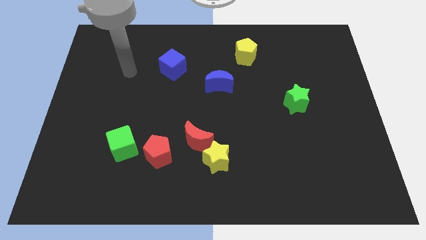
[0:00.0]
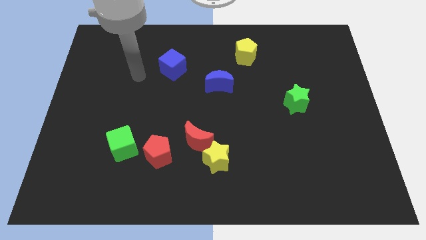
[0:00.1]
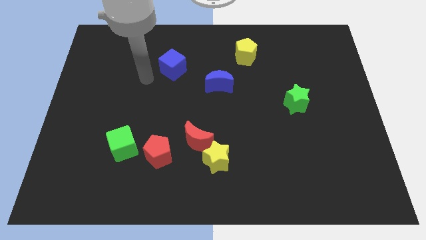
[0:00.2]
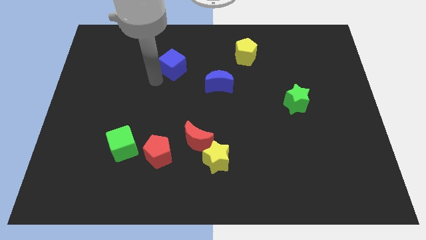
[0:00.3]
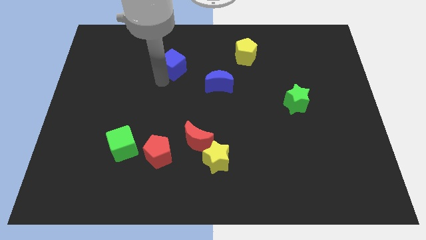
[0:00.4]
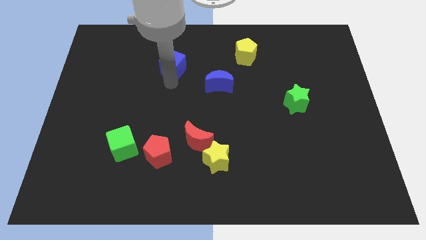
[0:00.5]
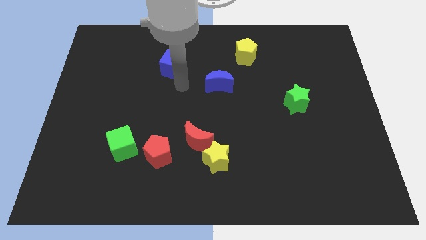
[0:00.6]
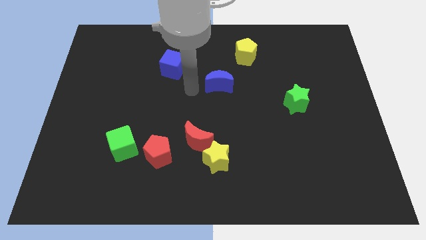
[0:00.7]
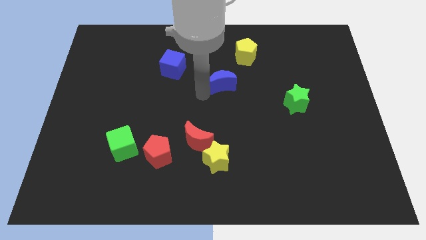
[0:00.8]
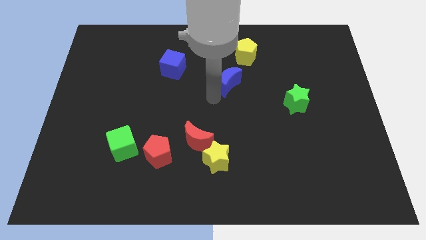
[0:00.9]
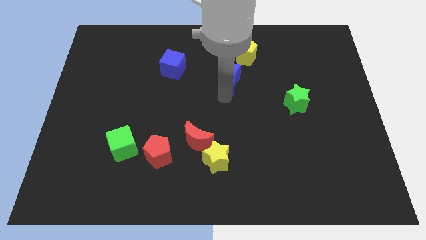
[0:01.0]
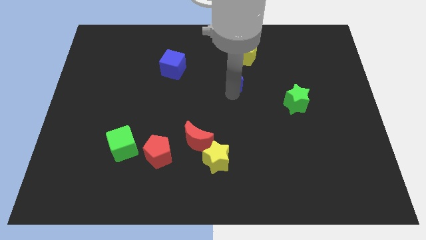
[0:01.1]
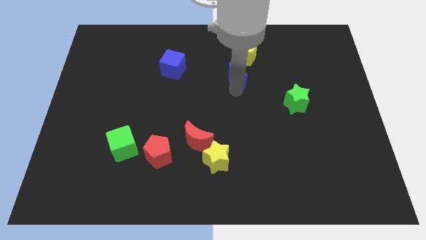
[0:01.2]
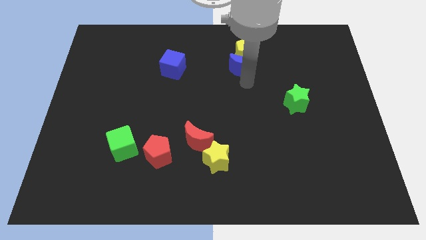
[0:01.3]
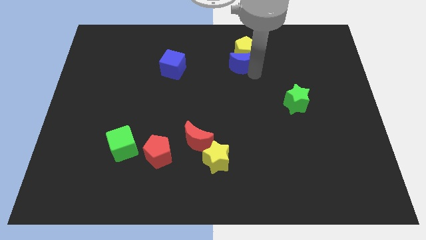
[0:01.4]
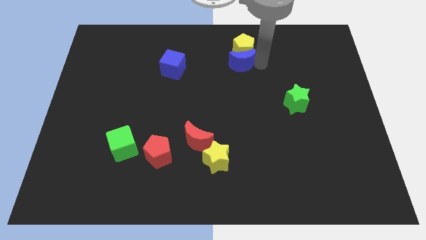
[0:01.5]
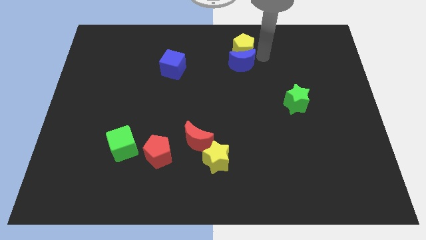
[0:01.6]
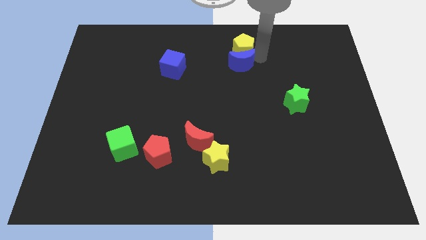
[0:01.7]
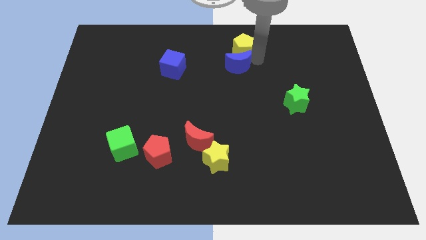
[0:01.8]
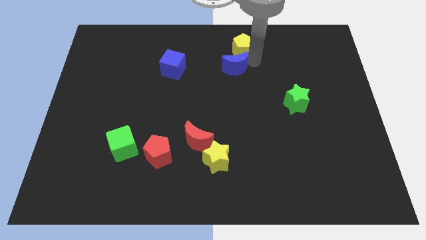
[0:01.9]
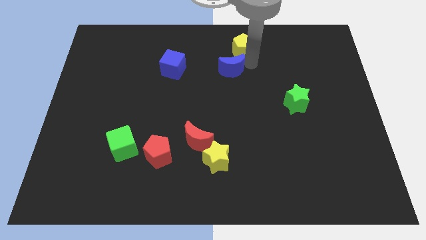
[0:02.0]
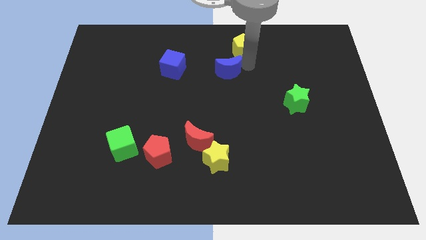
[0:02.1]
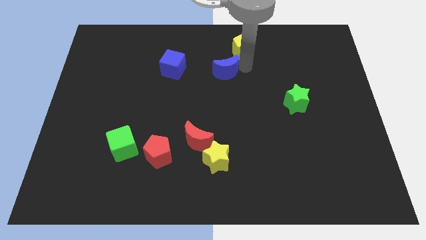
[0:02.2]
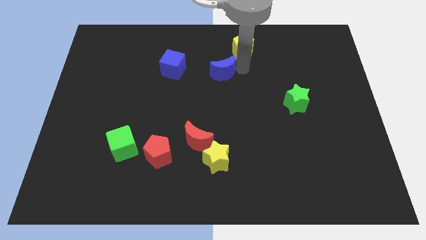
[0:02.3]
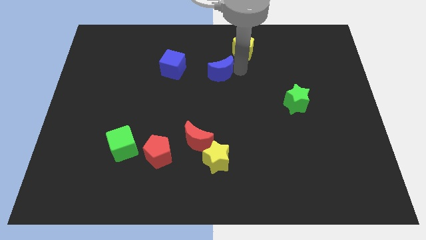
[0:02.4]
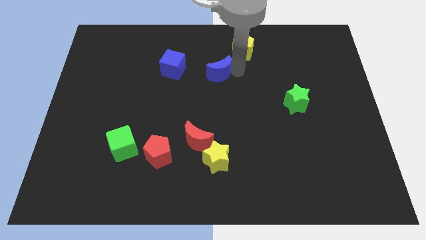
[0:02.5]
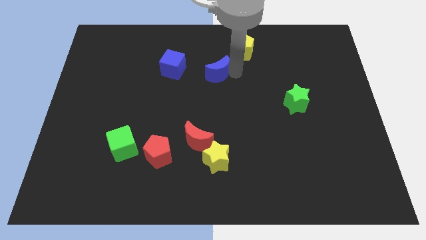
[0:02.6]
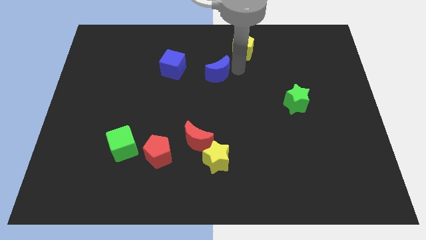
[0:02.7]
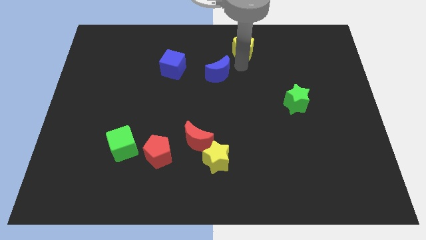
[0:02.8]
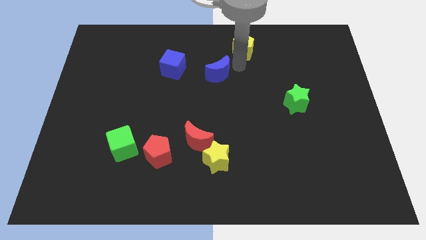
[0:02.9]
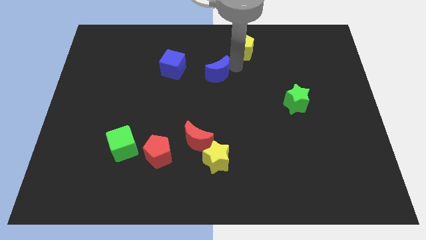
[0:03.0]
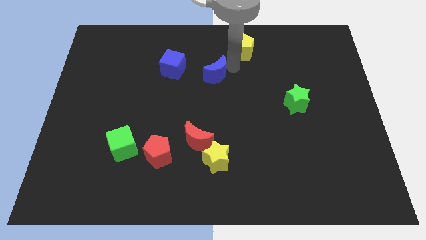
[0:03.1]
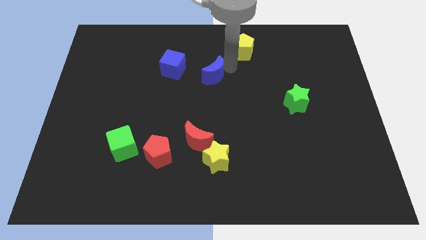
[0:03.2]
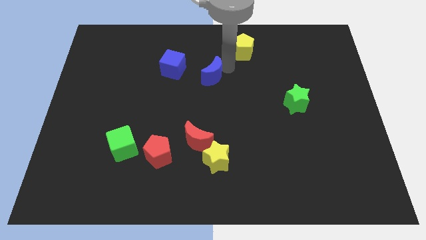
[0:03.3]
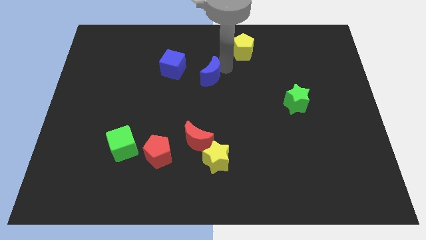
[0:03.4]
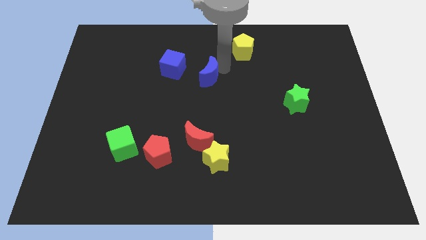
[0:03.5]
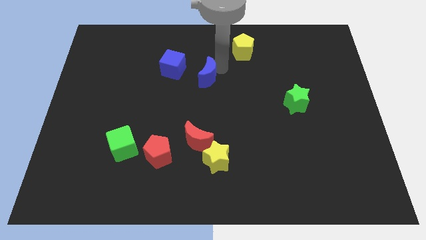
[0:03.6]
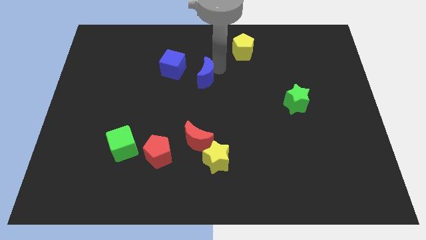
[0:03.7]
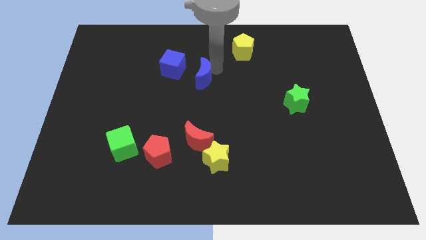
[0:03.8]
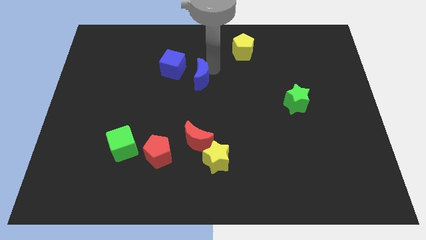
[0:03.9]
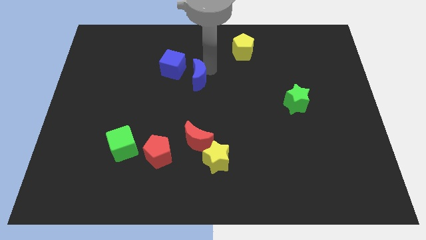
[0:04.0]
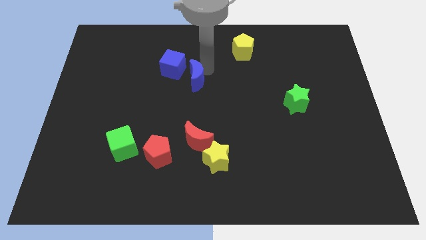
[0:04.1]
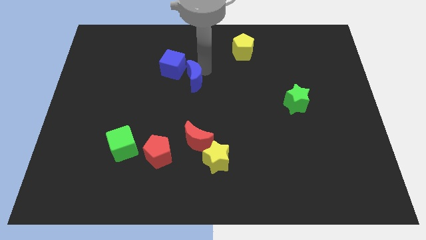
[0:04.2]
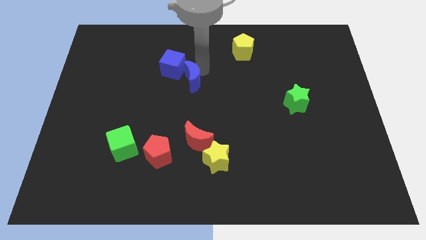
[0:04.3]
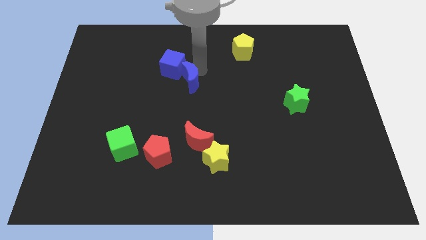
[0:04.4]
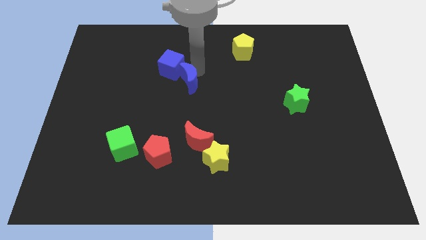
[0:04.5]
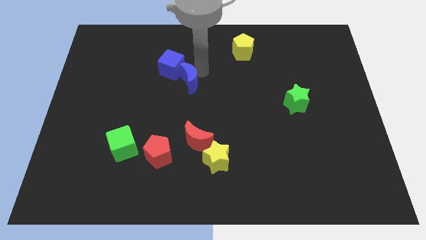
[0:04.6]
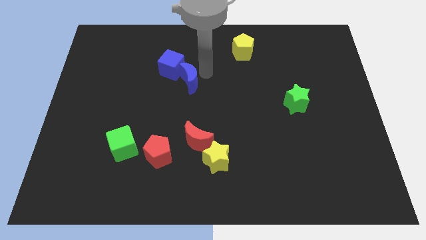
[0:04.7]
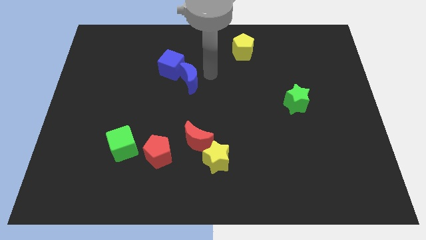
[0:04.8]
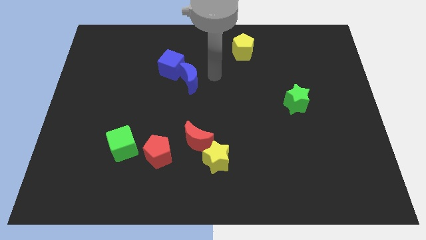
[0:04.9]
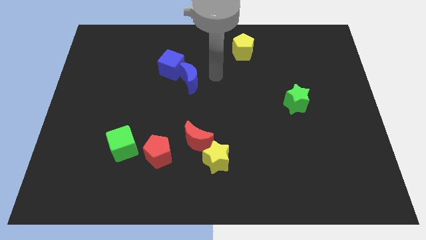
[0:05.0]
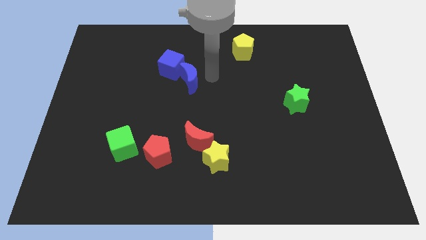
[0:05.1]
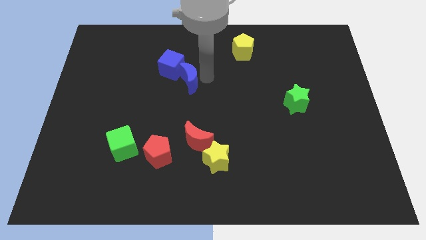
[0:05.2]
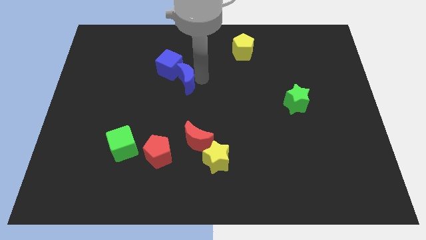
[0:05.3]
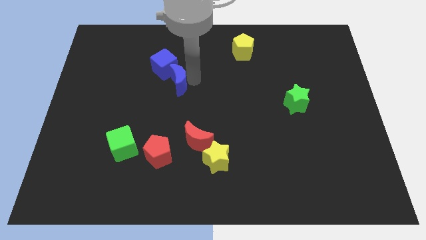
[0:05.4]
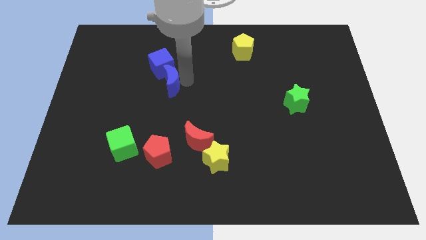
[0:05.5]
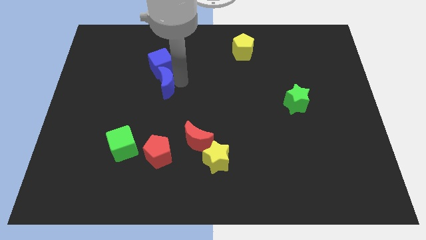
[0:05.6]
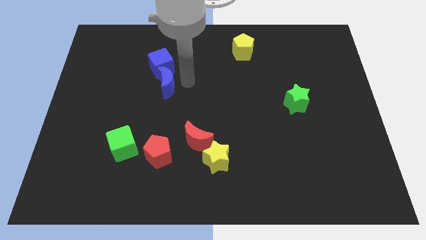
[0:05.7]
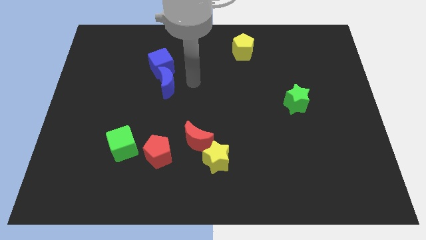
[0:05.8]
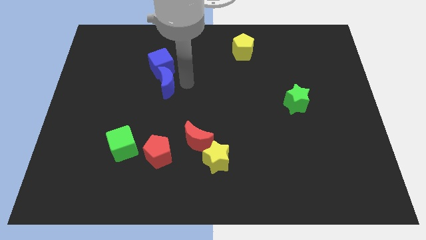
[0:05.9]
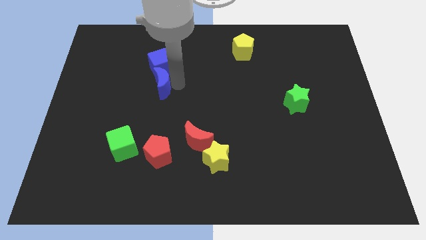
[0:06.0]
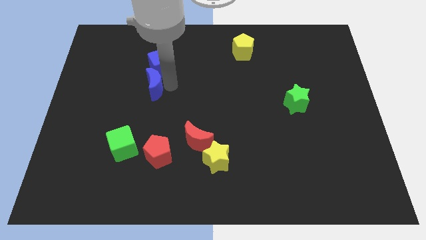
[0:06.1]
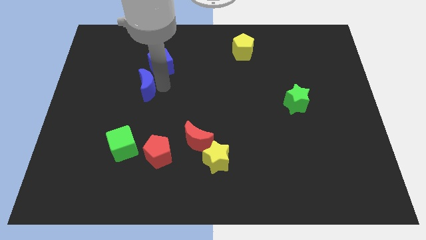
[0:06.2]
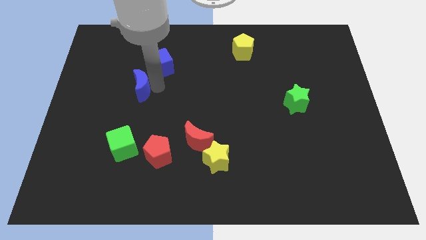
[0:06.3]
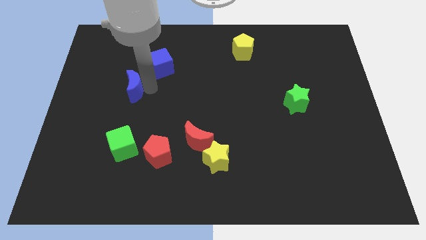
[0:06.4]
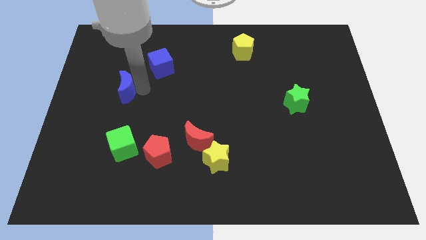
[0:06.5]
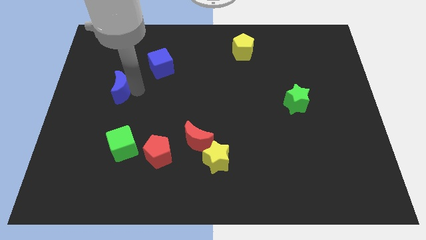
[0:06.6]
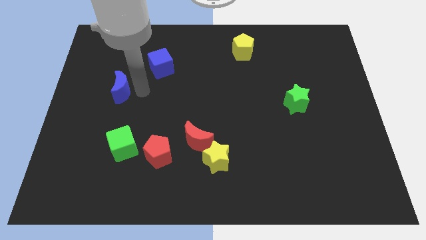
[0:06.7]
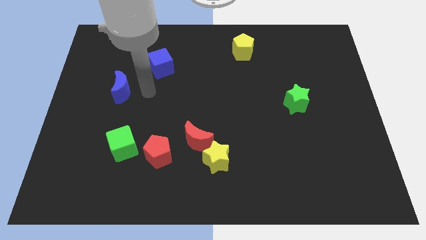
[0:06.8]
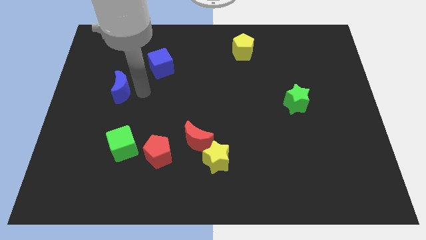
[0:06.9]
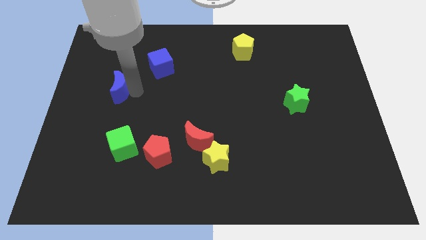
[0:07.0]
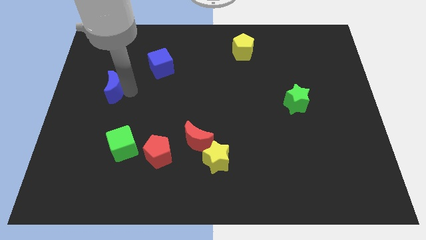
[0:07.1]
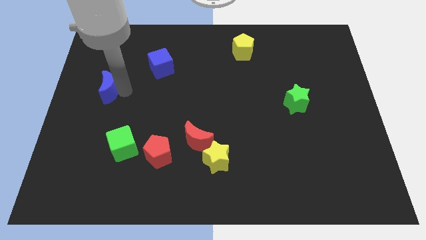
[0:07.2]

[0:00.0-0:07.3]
move the blue moon to the center left
